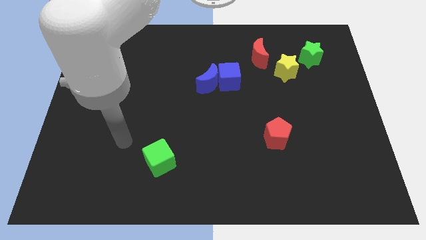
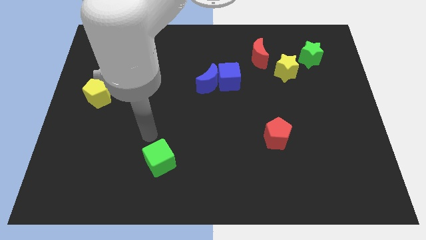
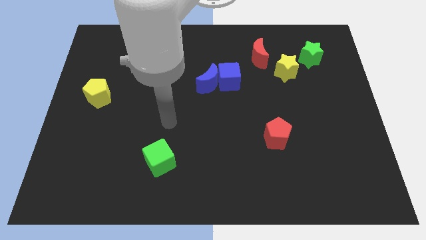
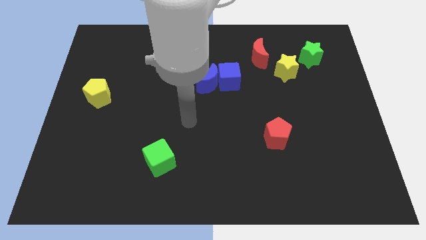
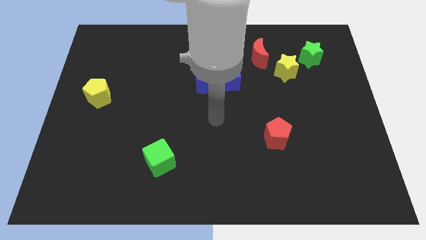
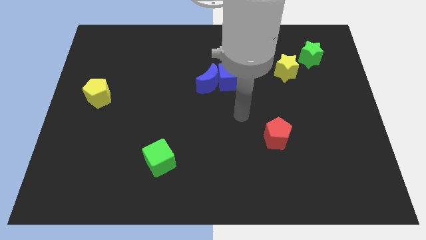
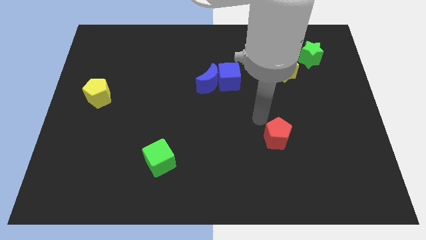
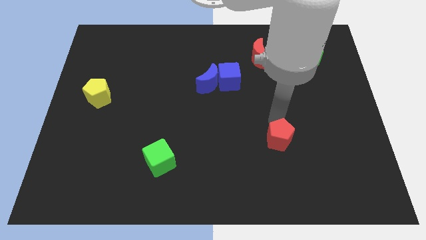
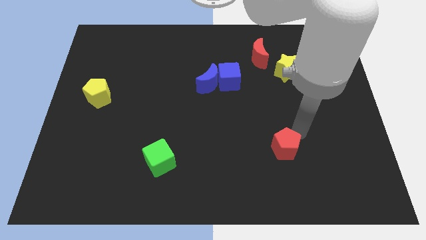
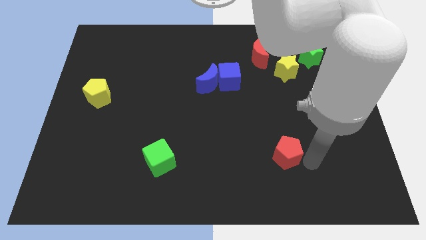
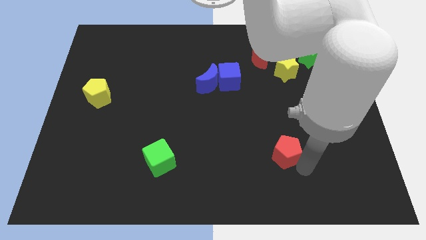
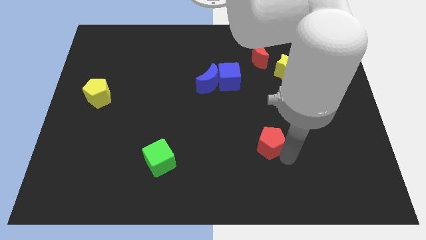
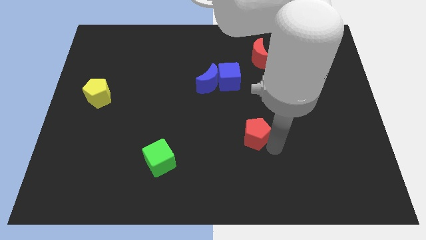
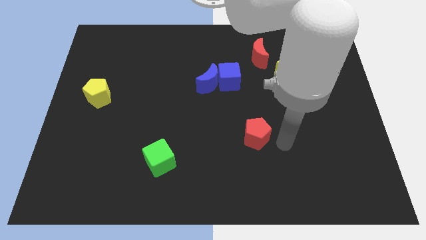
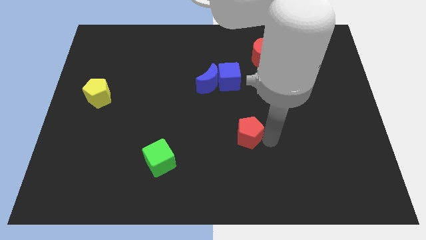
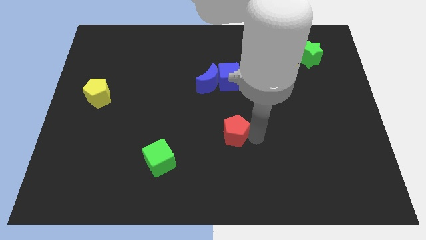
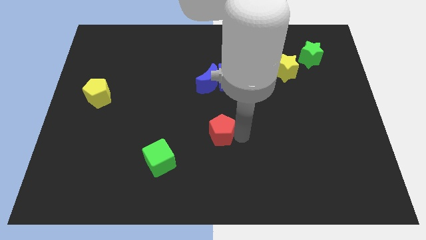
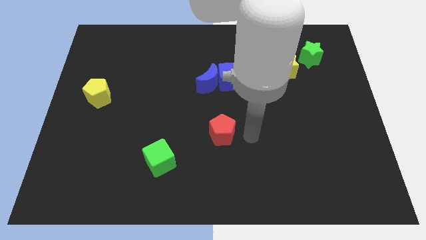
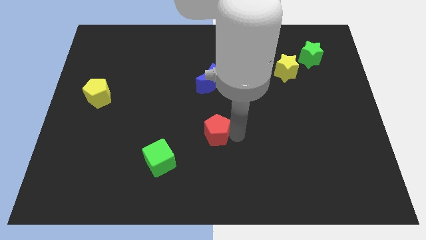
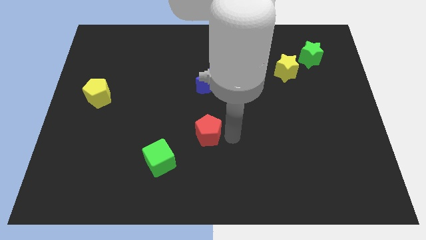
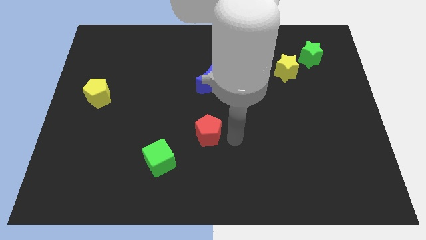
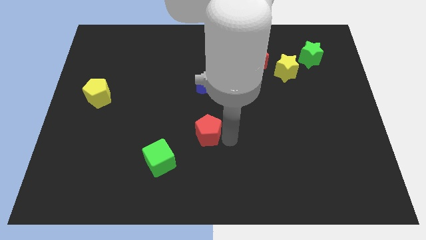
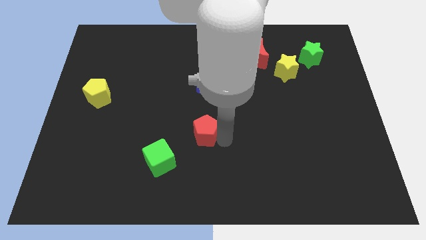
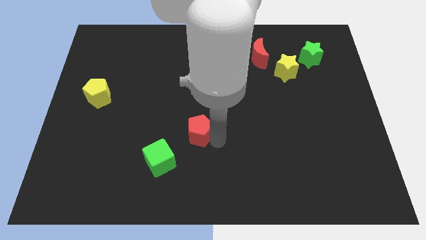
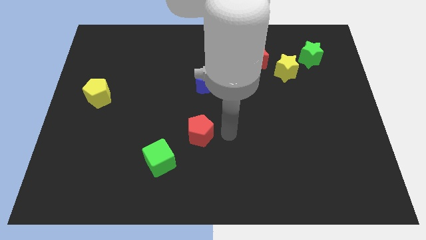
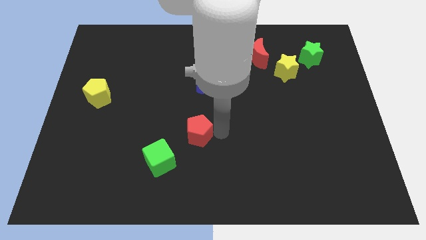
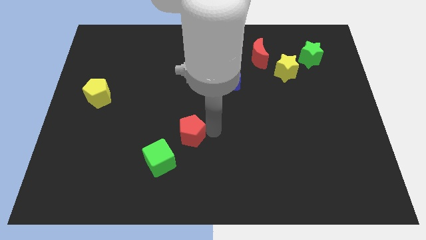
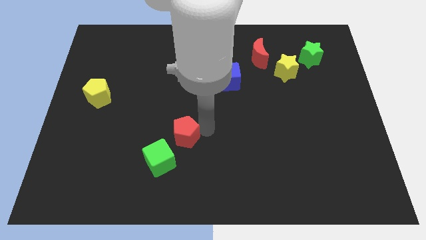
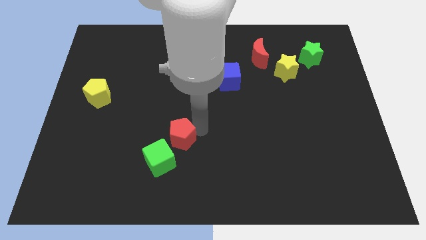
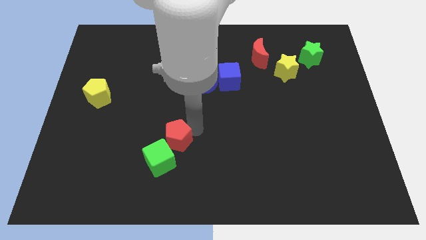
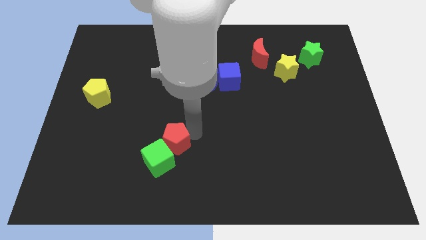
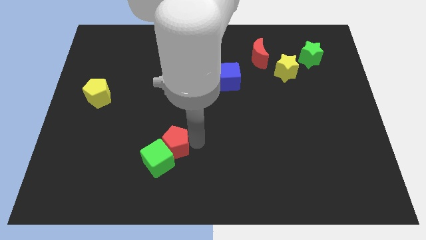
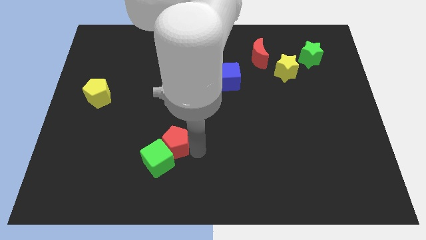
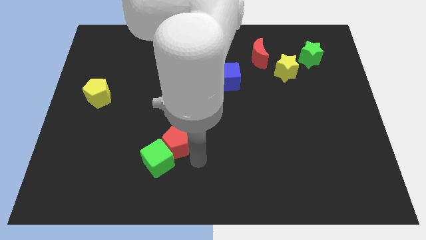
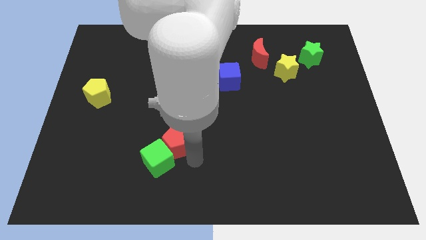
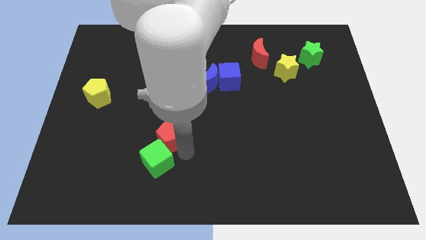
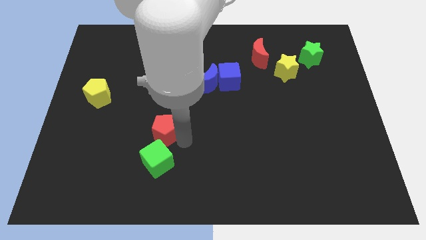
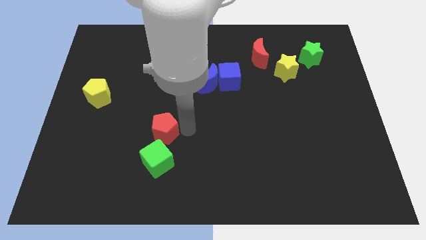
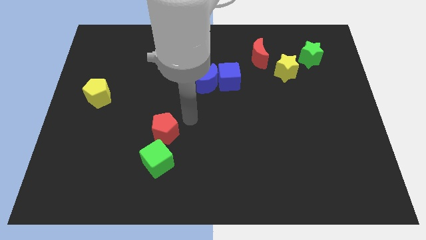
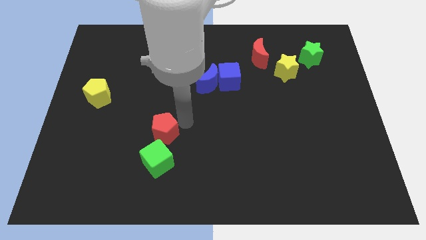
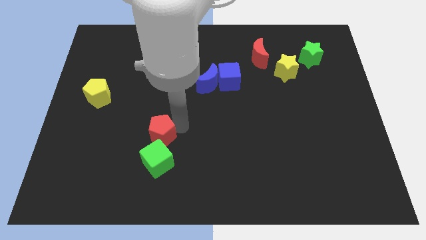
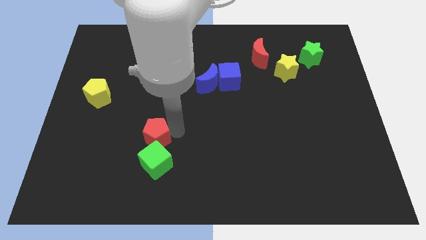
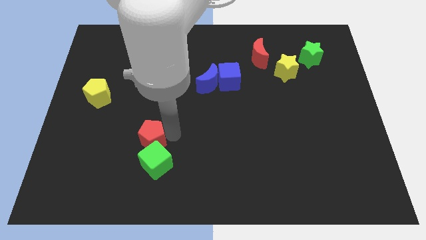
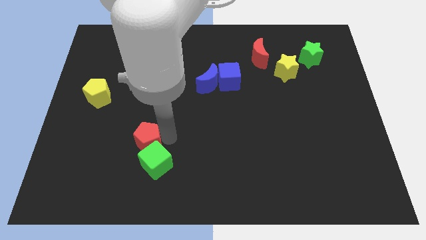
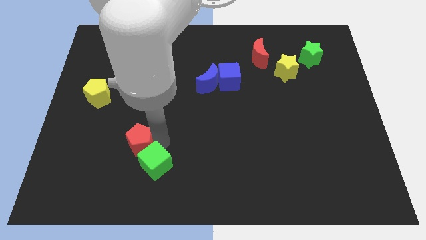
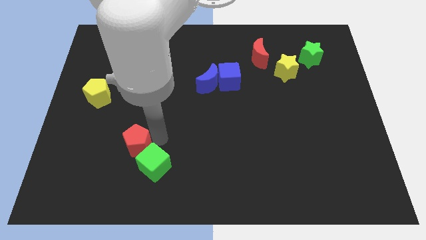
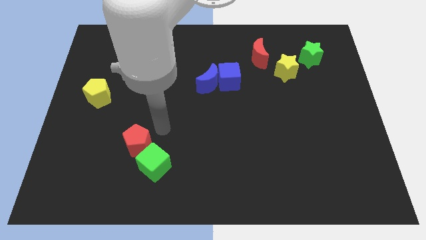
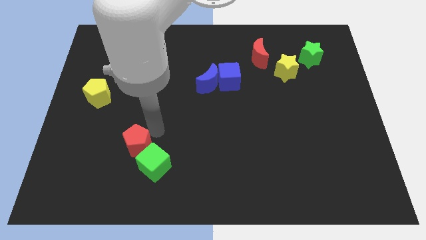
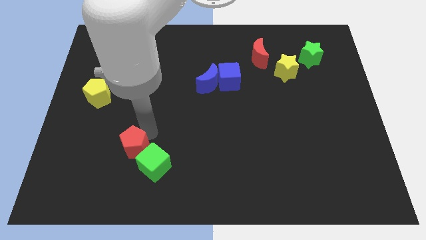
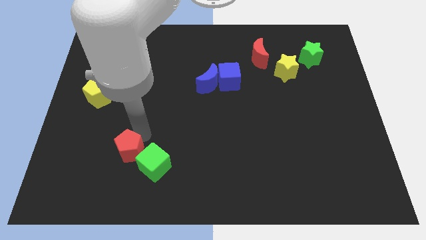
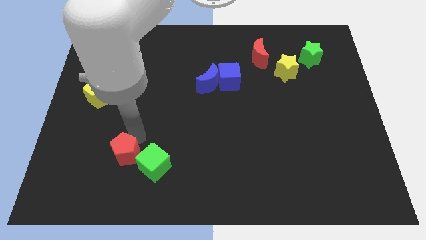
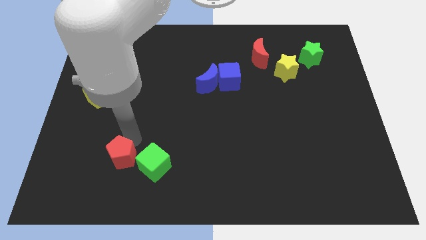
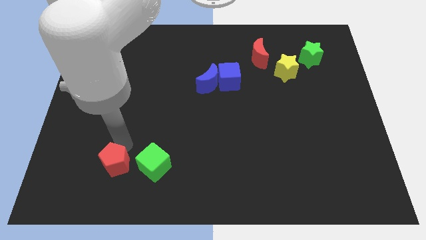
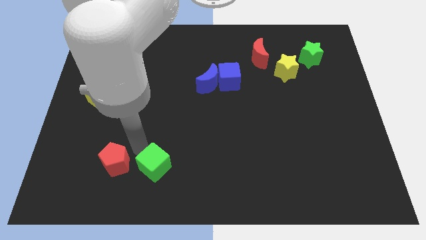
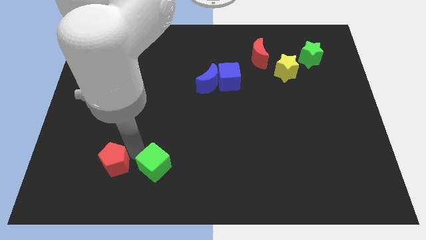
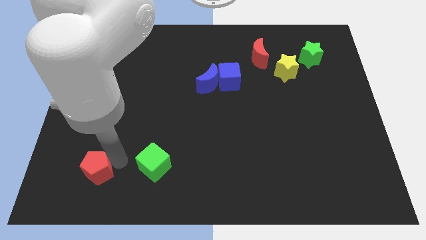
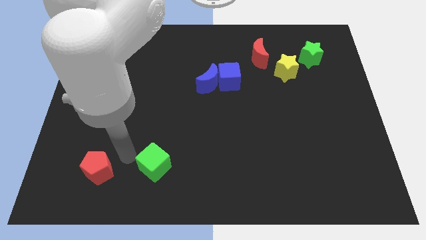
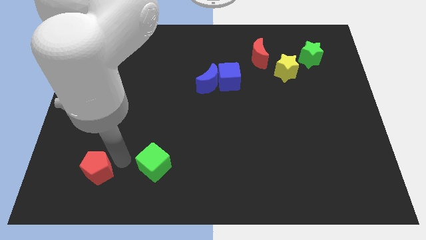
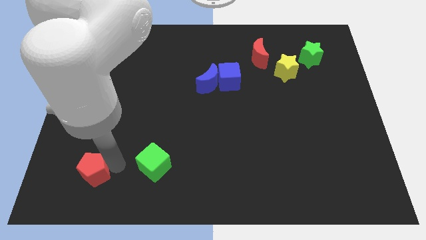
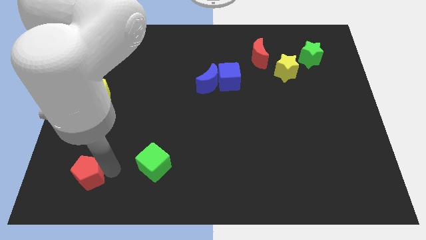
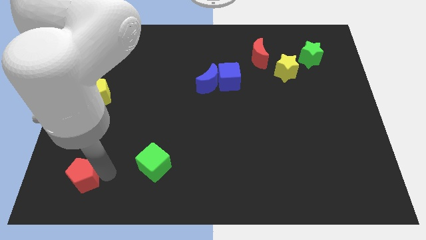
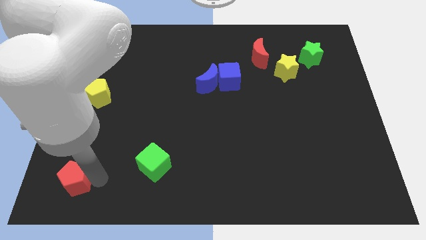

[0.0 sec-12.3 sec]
push the red pentagon to the bottom left
